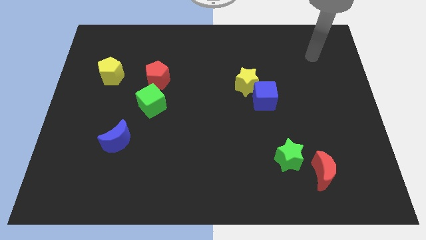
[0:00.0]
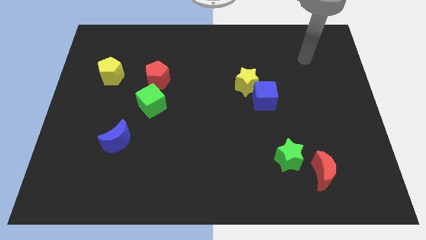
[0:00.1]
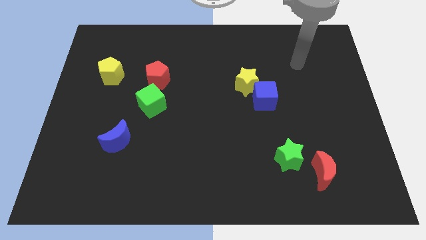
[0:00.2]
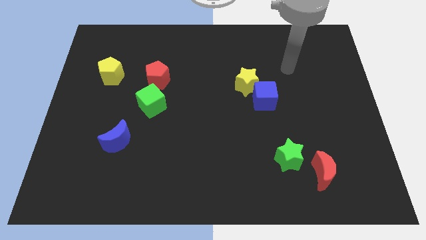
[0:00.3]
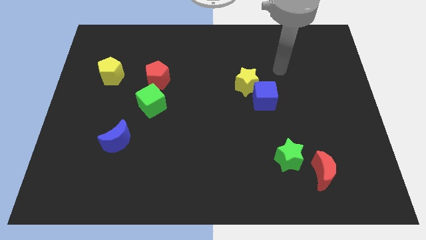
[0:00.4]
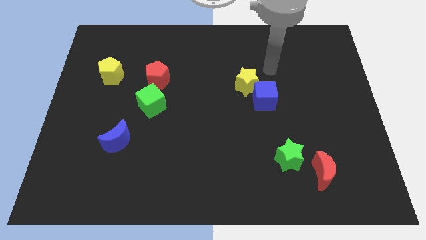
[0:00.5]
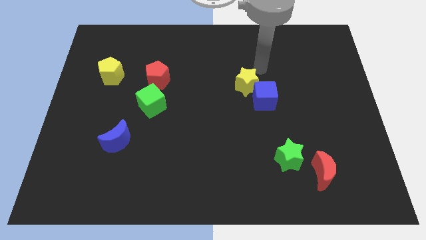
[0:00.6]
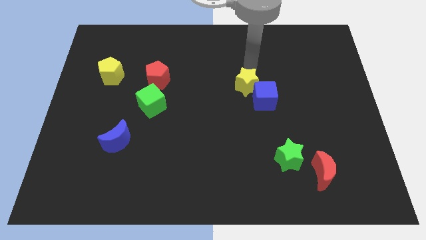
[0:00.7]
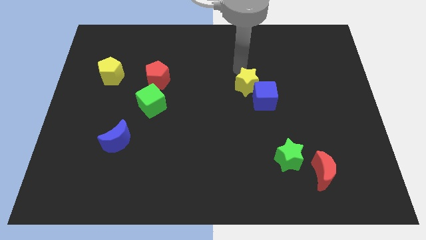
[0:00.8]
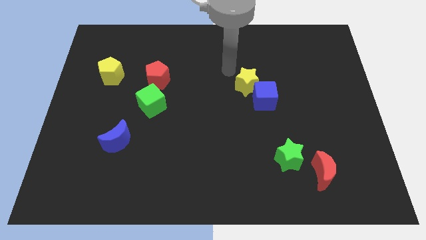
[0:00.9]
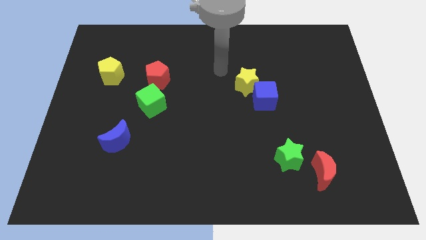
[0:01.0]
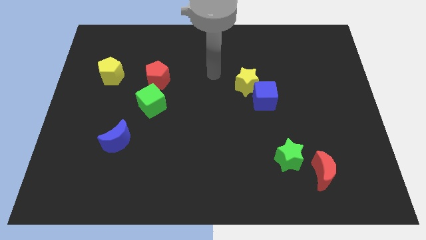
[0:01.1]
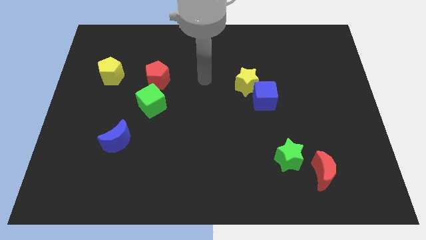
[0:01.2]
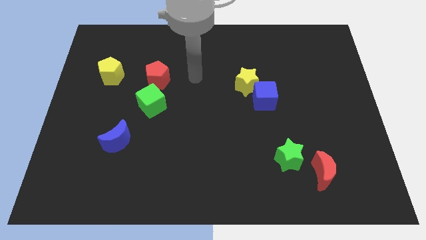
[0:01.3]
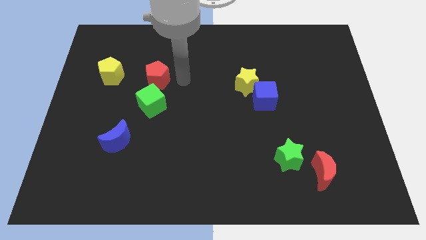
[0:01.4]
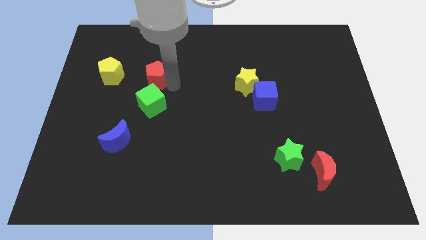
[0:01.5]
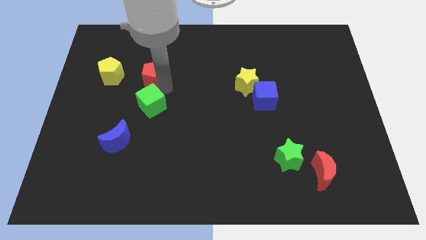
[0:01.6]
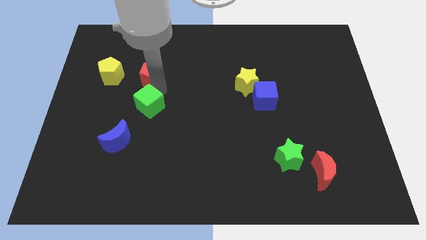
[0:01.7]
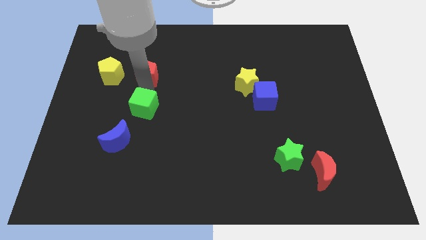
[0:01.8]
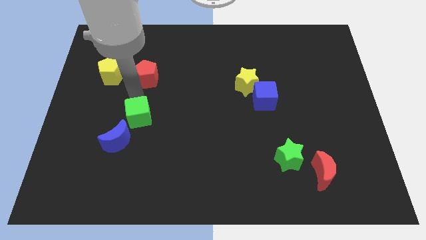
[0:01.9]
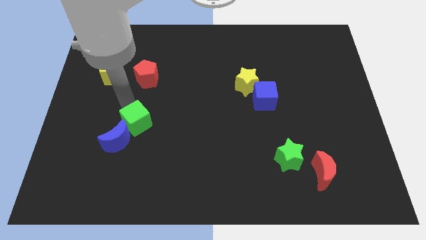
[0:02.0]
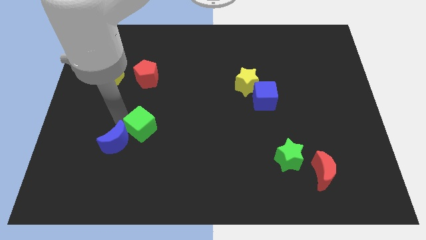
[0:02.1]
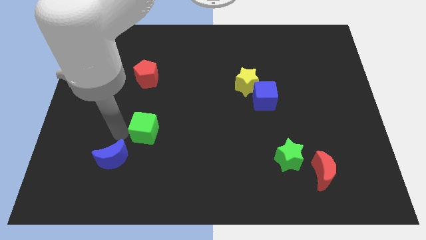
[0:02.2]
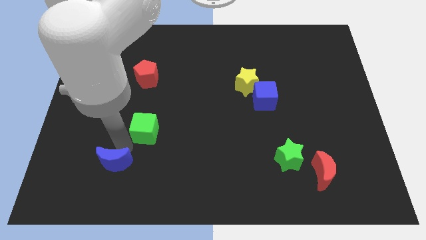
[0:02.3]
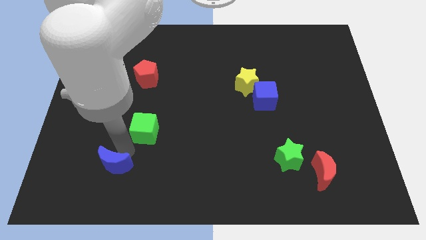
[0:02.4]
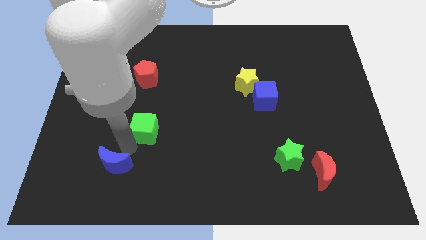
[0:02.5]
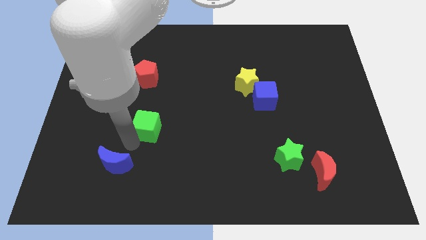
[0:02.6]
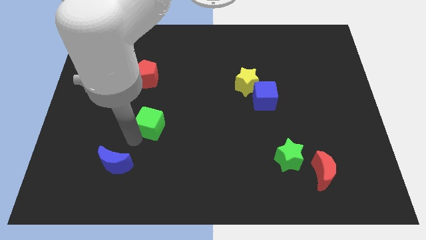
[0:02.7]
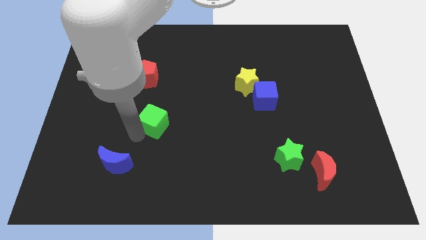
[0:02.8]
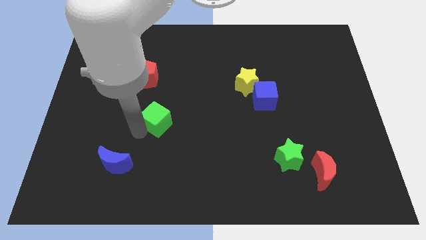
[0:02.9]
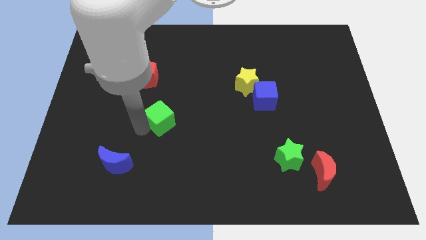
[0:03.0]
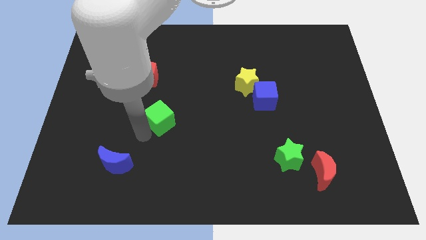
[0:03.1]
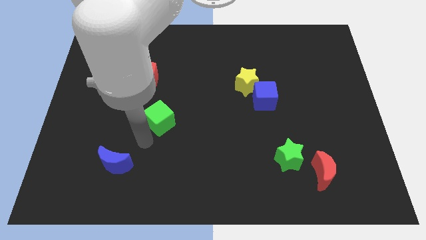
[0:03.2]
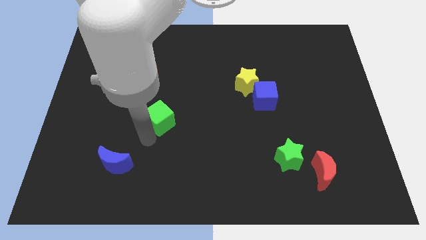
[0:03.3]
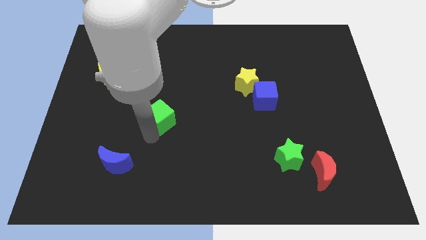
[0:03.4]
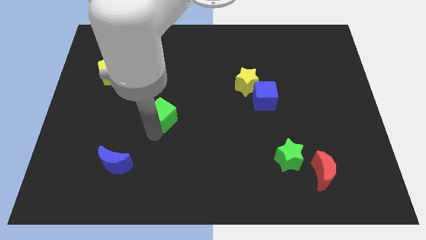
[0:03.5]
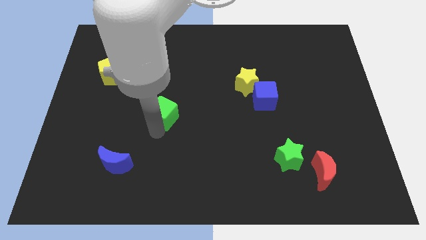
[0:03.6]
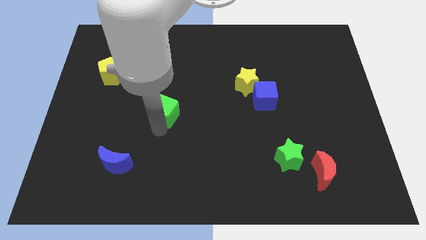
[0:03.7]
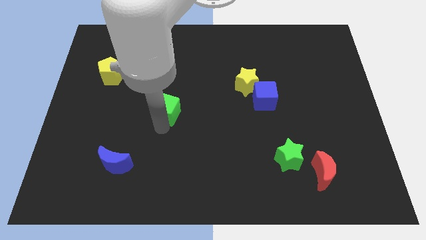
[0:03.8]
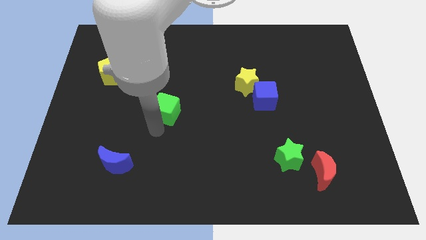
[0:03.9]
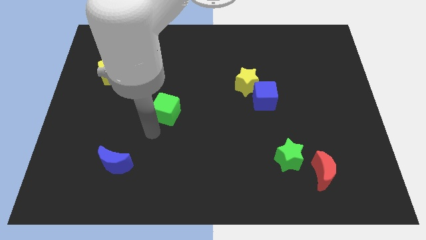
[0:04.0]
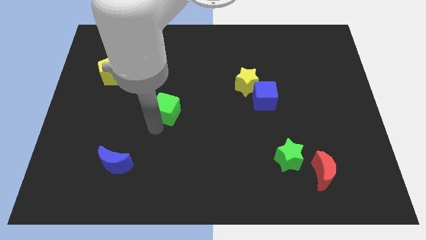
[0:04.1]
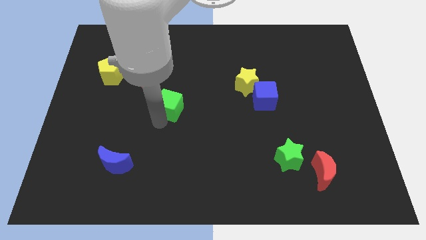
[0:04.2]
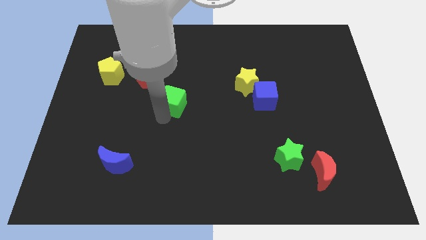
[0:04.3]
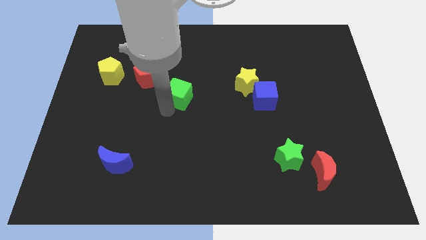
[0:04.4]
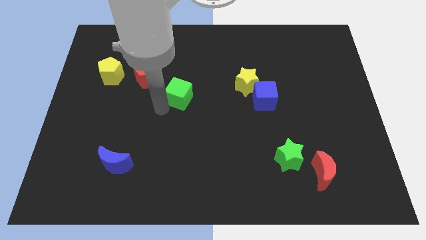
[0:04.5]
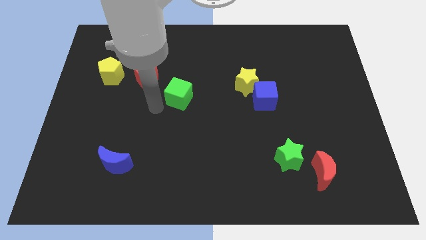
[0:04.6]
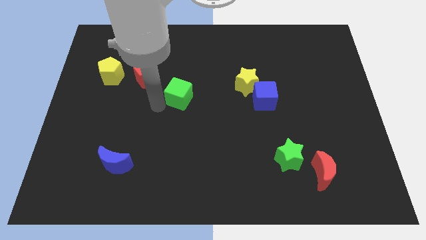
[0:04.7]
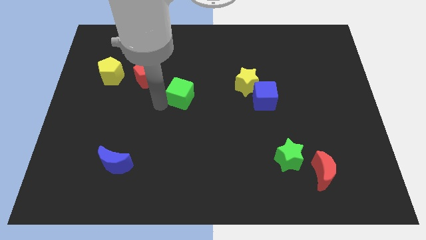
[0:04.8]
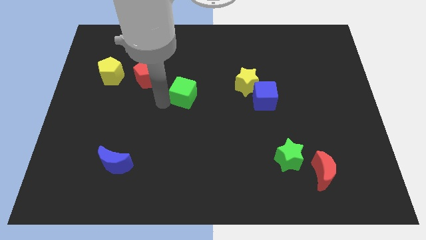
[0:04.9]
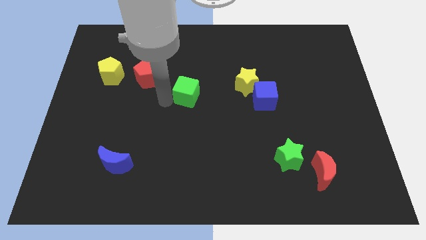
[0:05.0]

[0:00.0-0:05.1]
push the green cube left of the yellow star

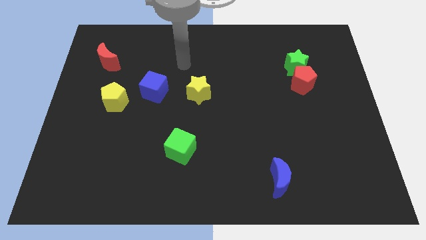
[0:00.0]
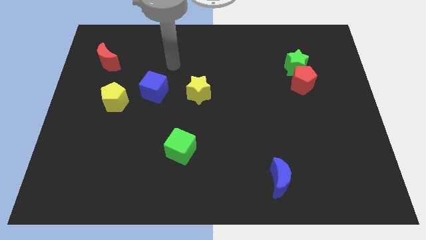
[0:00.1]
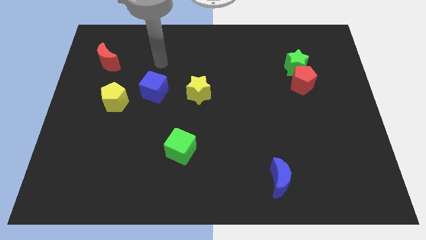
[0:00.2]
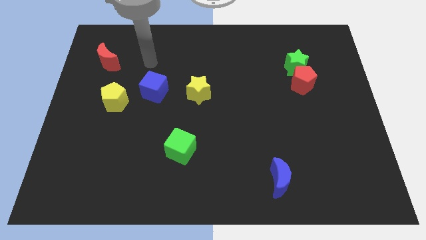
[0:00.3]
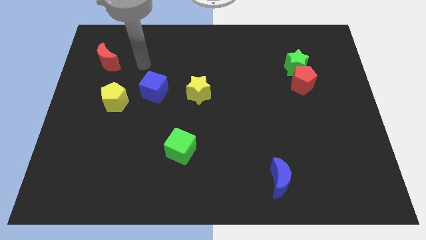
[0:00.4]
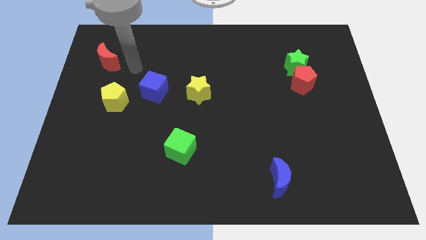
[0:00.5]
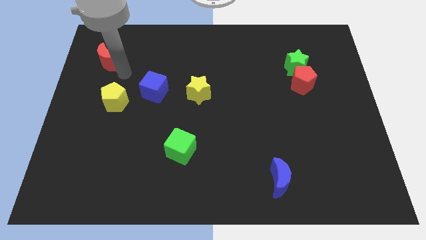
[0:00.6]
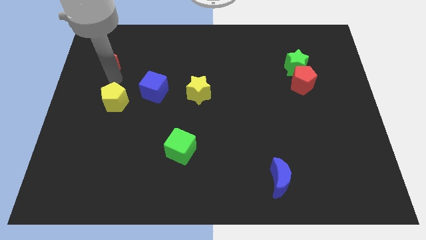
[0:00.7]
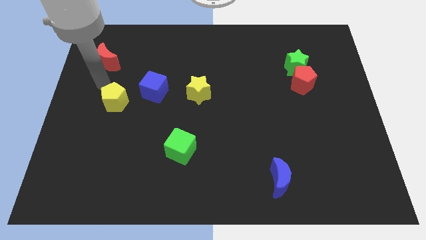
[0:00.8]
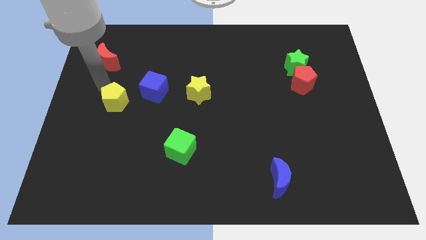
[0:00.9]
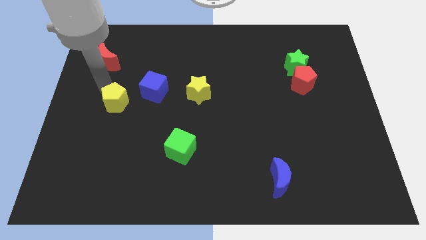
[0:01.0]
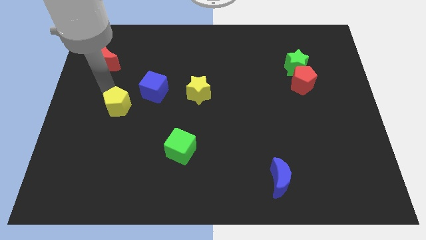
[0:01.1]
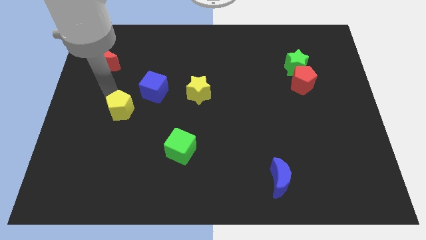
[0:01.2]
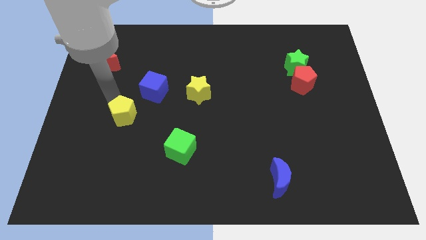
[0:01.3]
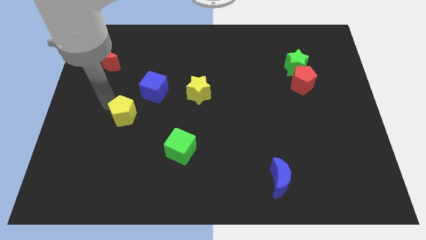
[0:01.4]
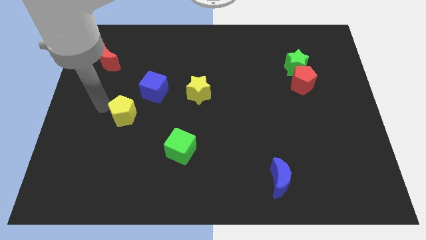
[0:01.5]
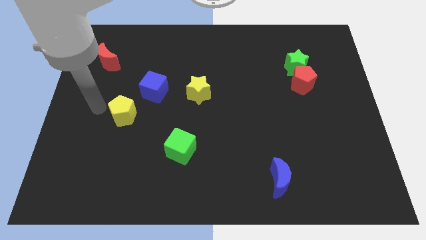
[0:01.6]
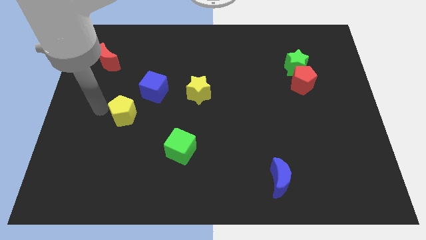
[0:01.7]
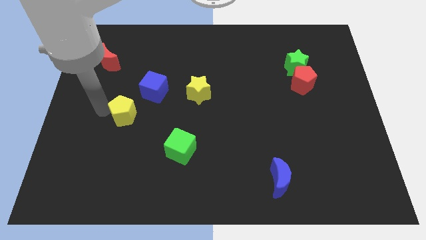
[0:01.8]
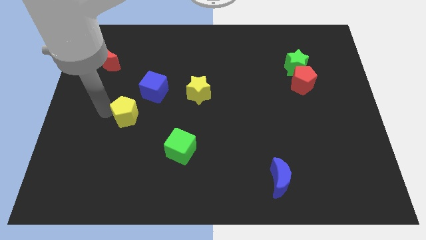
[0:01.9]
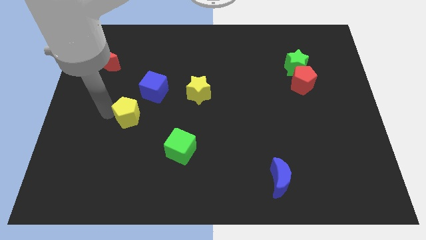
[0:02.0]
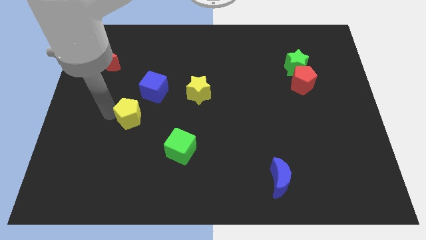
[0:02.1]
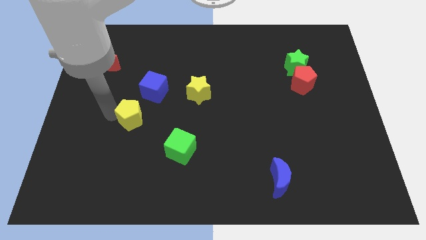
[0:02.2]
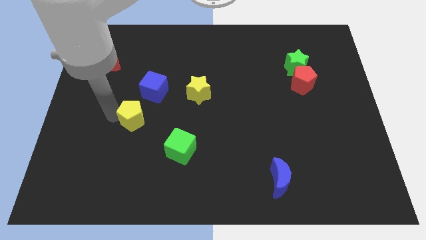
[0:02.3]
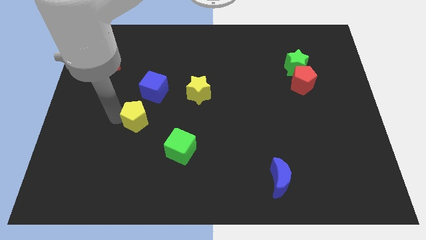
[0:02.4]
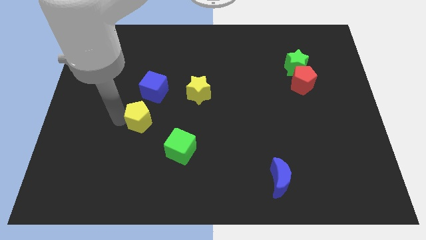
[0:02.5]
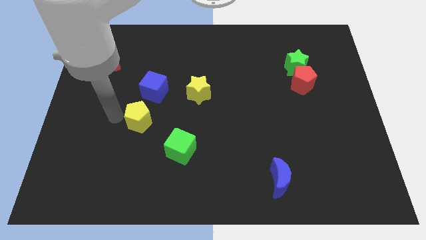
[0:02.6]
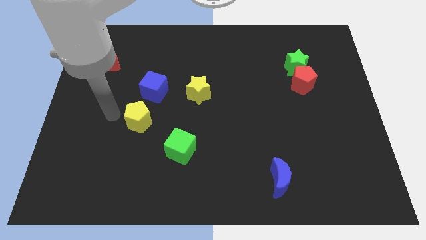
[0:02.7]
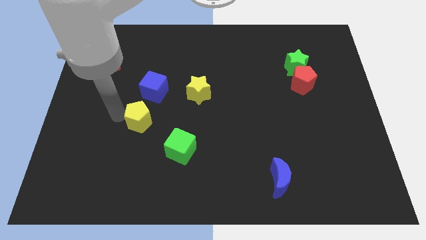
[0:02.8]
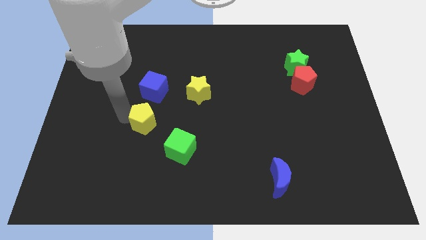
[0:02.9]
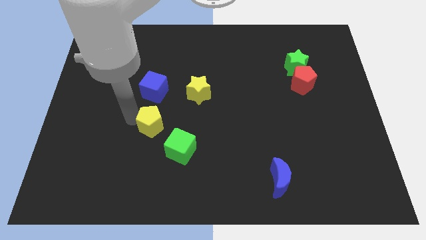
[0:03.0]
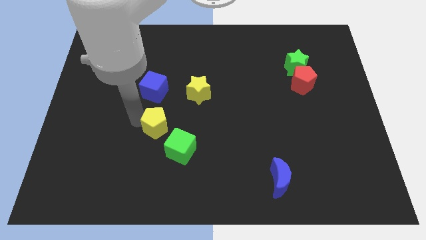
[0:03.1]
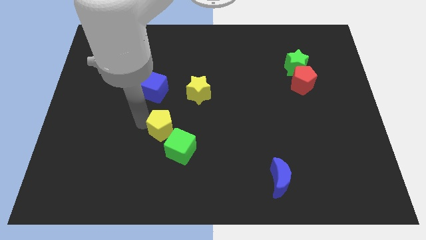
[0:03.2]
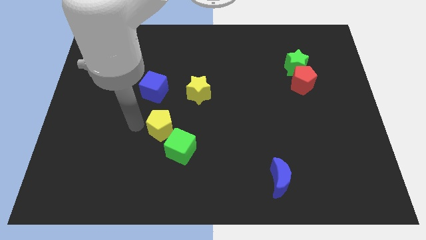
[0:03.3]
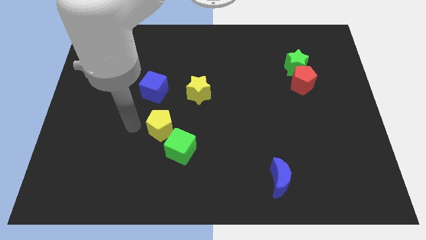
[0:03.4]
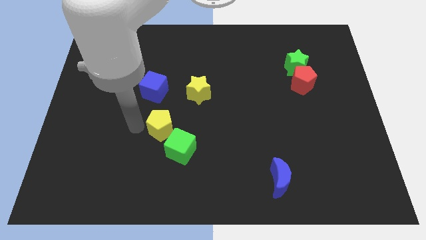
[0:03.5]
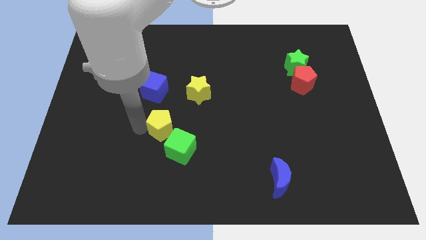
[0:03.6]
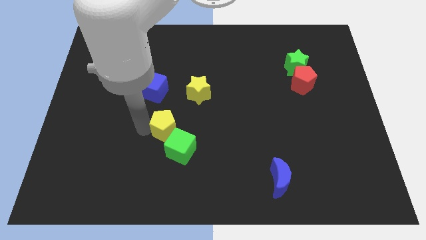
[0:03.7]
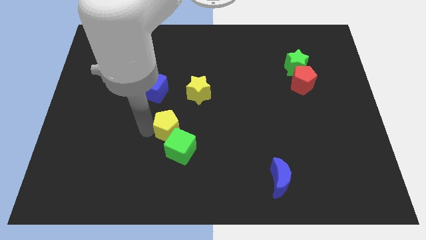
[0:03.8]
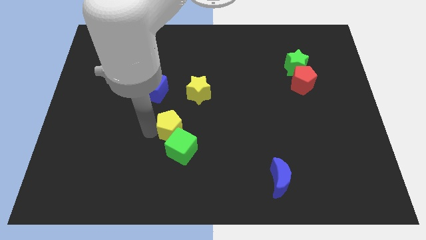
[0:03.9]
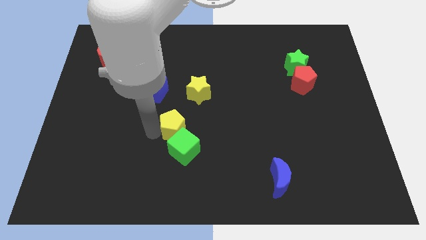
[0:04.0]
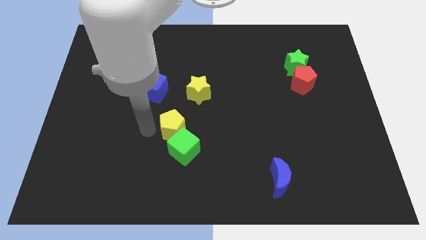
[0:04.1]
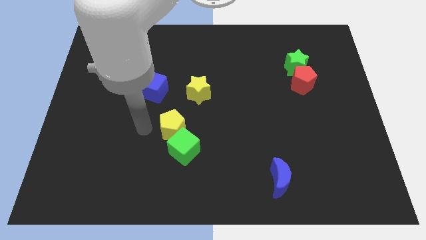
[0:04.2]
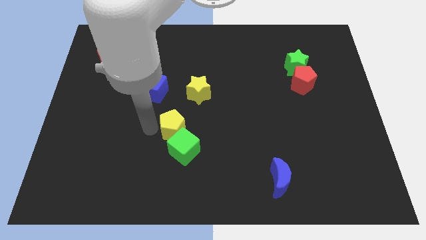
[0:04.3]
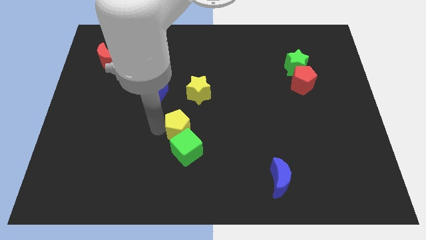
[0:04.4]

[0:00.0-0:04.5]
push the yellow pentagon to the bottom side of the yellow star
